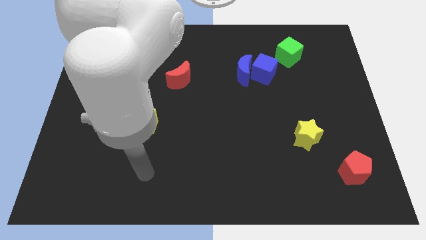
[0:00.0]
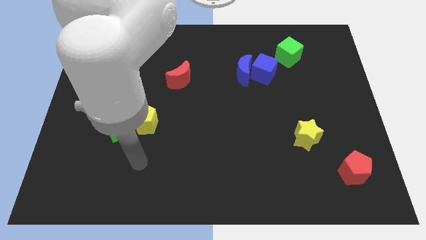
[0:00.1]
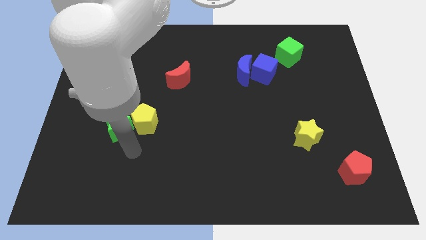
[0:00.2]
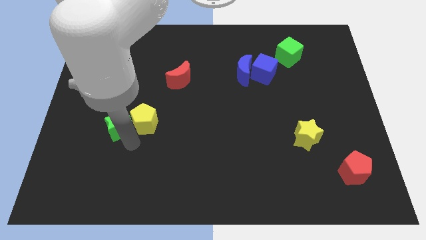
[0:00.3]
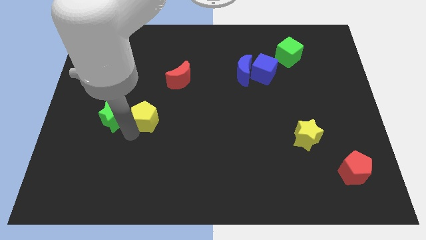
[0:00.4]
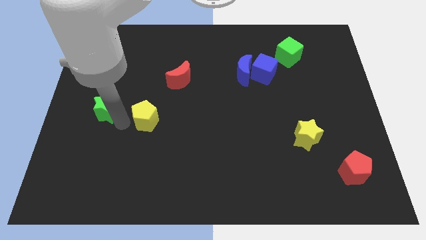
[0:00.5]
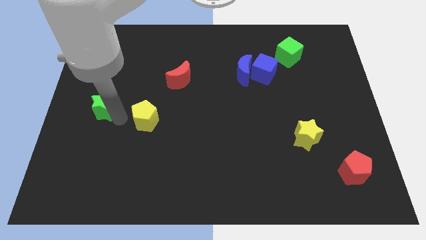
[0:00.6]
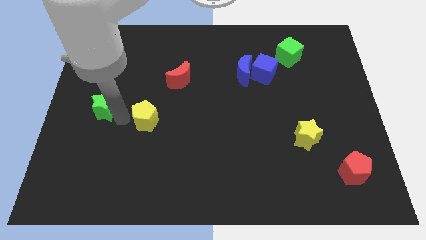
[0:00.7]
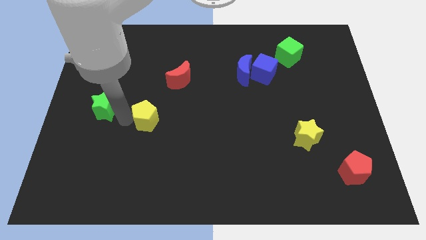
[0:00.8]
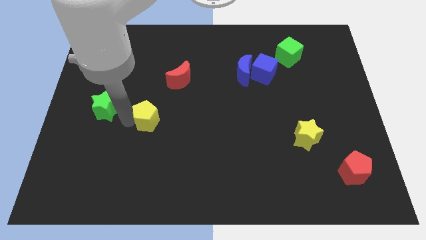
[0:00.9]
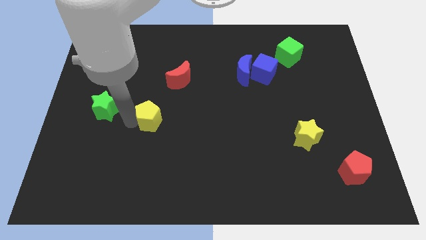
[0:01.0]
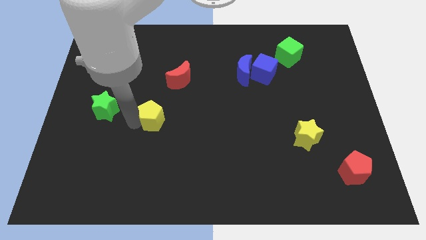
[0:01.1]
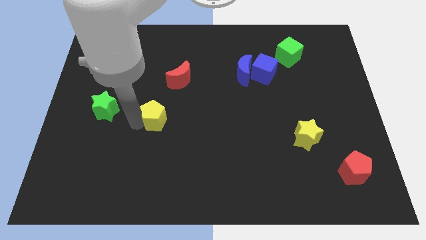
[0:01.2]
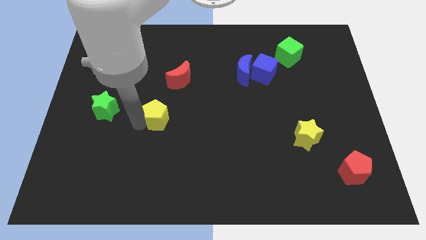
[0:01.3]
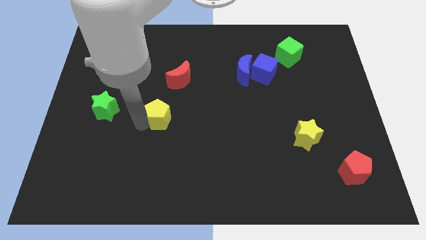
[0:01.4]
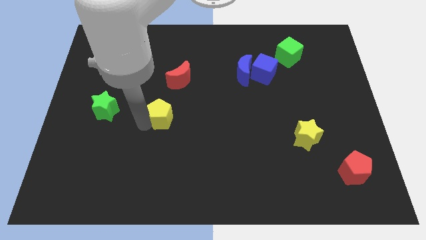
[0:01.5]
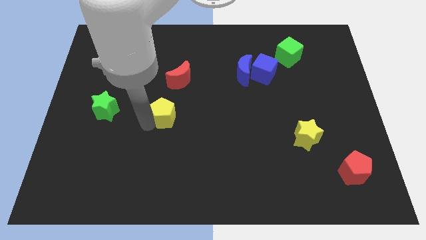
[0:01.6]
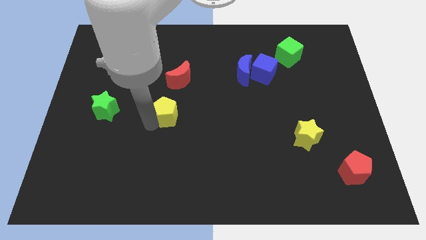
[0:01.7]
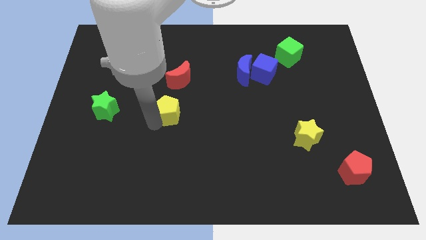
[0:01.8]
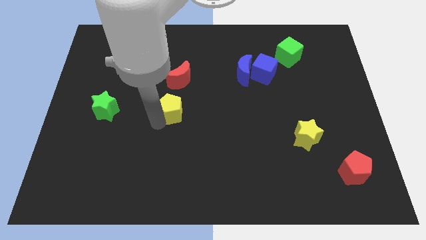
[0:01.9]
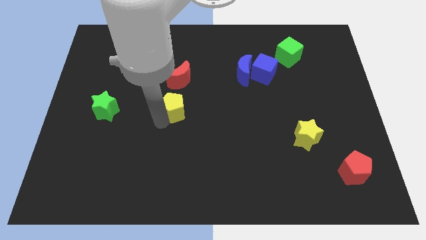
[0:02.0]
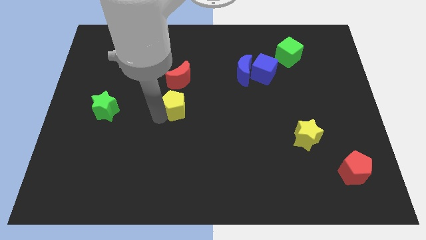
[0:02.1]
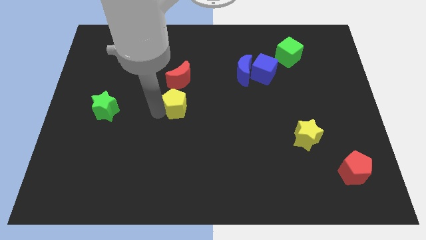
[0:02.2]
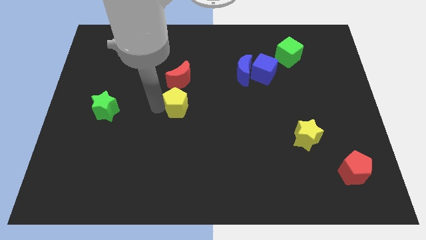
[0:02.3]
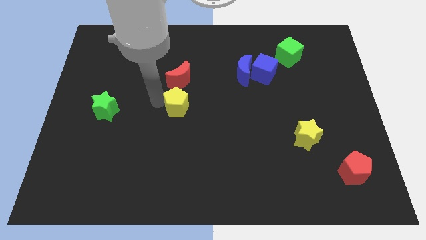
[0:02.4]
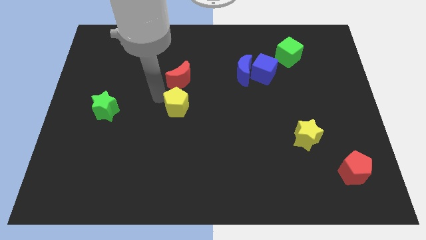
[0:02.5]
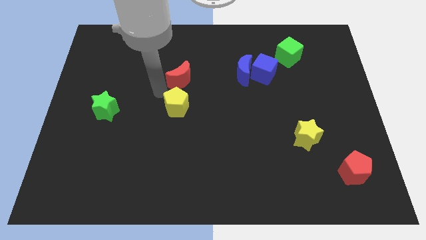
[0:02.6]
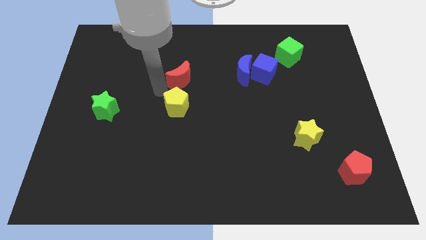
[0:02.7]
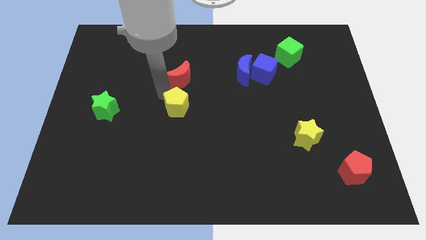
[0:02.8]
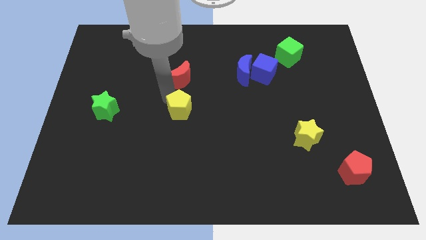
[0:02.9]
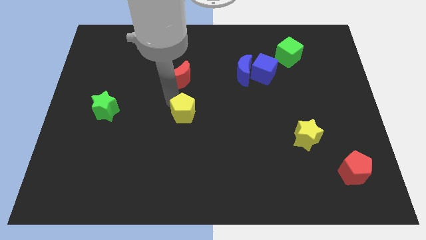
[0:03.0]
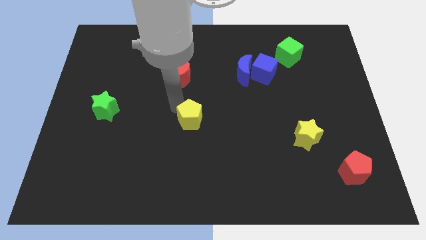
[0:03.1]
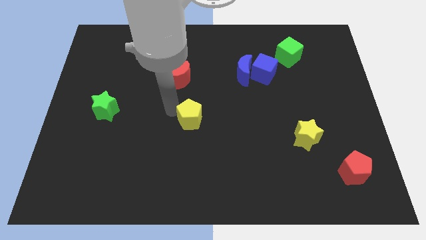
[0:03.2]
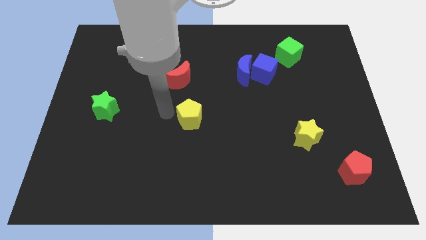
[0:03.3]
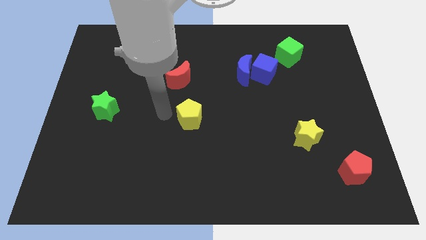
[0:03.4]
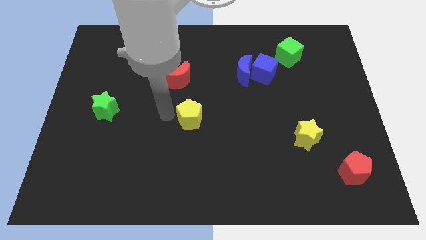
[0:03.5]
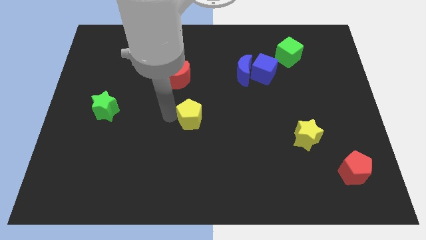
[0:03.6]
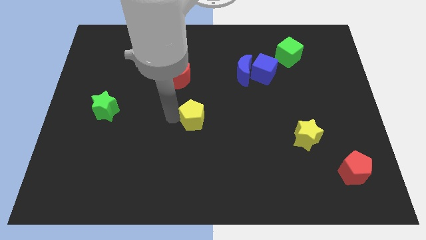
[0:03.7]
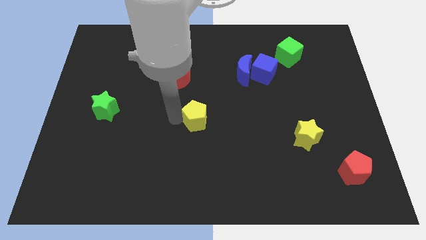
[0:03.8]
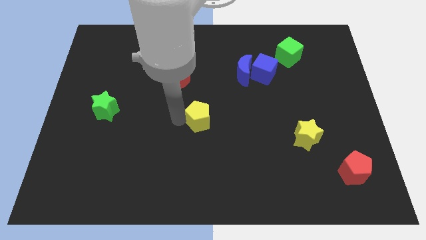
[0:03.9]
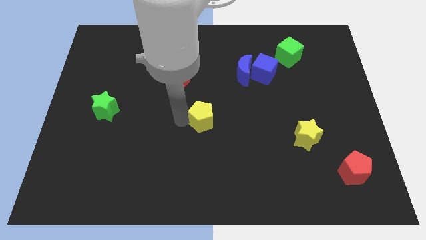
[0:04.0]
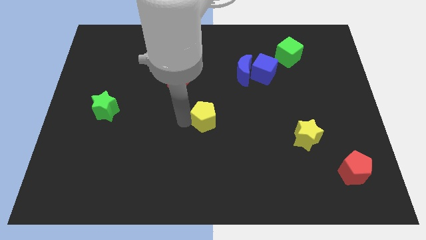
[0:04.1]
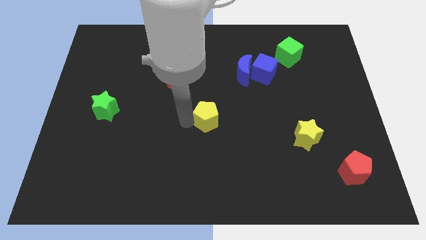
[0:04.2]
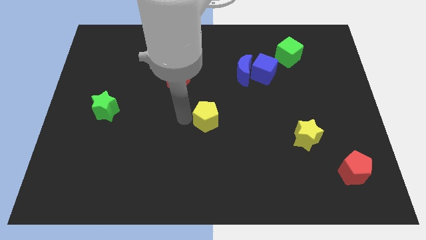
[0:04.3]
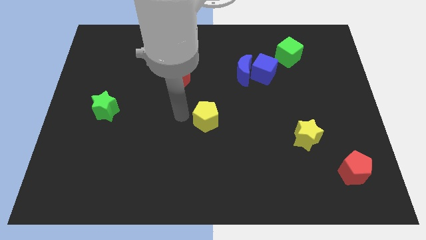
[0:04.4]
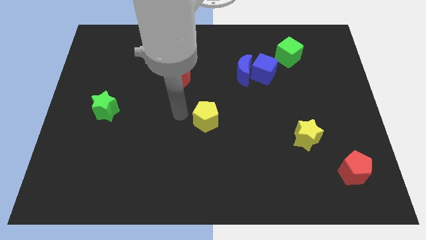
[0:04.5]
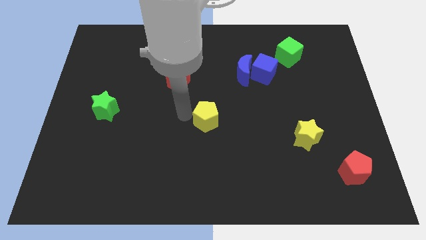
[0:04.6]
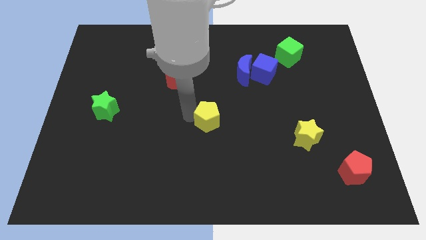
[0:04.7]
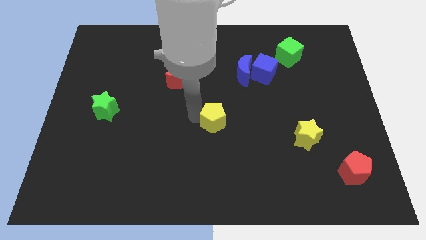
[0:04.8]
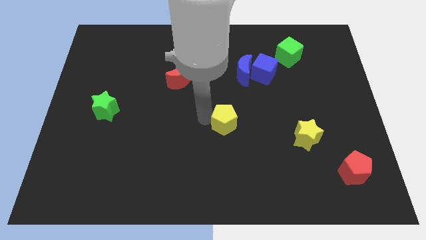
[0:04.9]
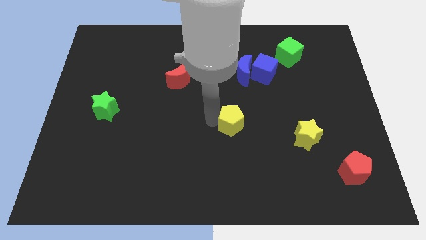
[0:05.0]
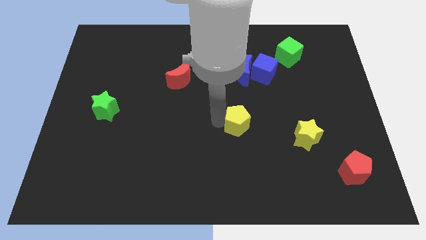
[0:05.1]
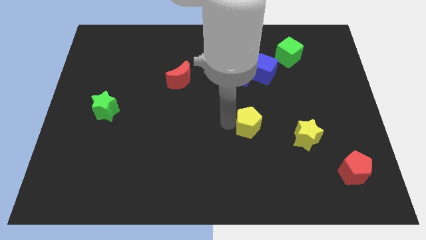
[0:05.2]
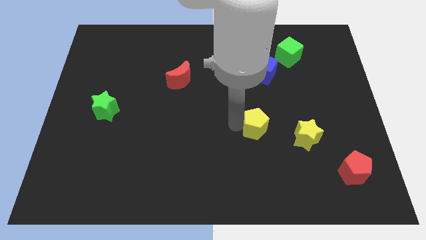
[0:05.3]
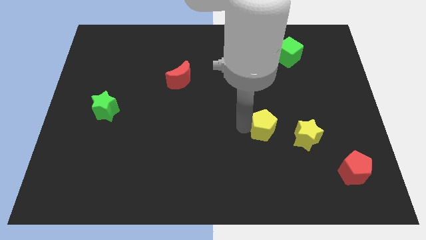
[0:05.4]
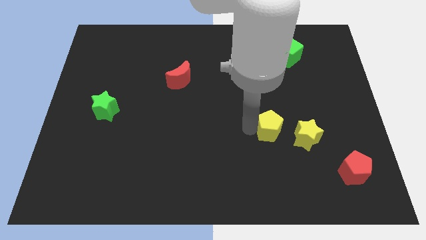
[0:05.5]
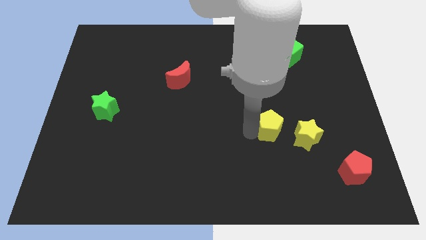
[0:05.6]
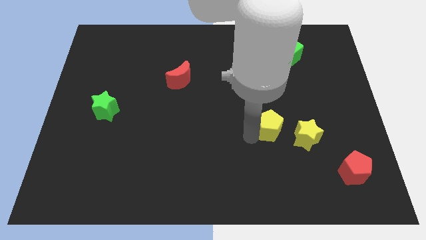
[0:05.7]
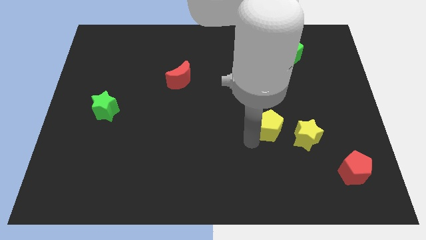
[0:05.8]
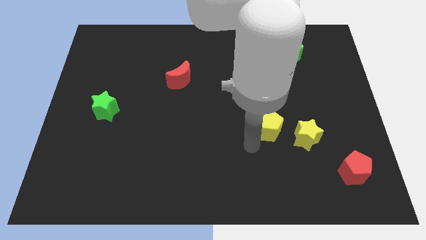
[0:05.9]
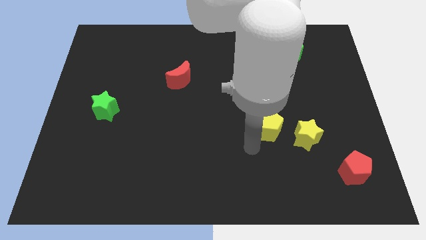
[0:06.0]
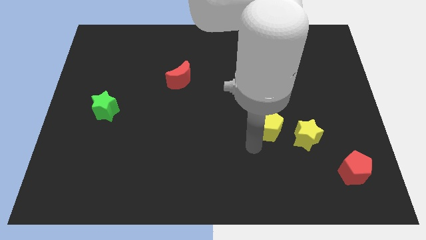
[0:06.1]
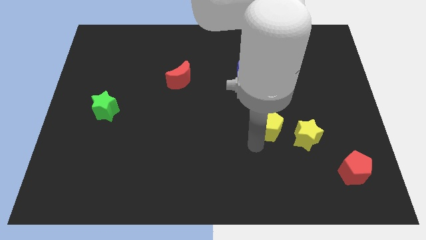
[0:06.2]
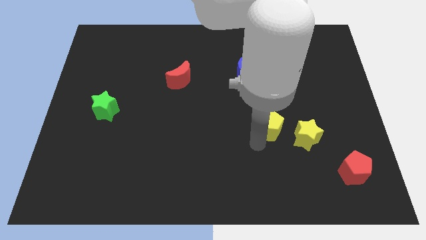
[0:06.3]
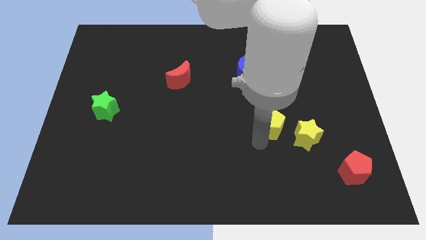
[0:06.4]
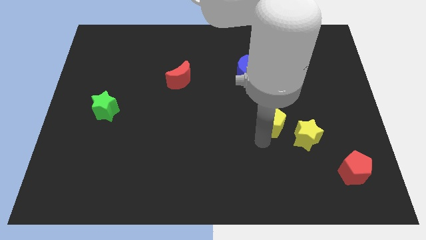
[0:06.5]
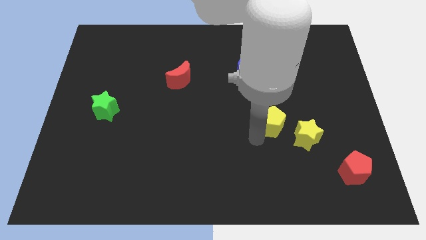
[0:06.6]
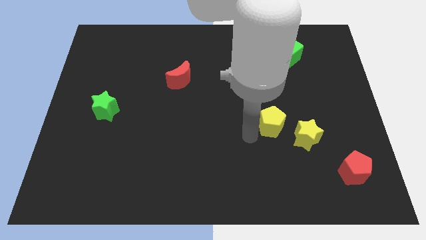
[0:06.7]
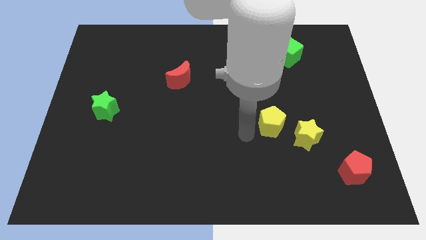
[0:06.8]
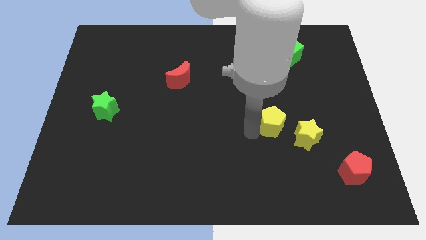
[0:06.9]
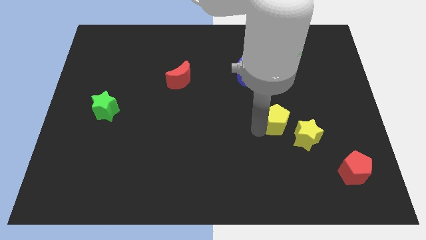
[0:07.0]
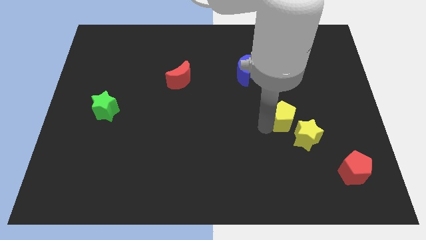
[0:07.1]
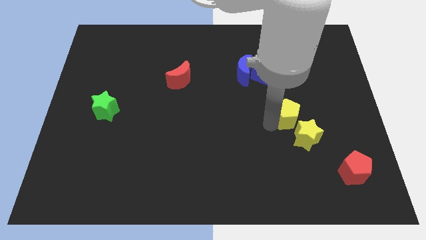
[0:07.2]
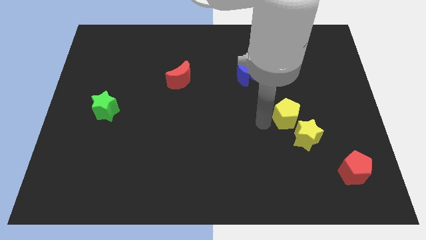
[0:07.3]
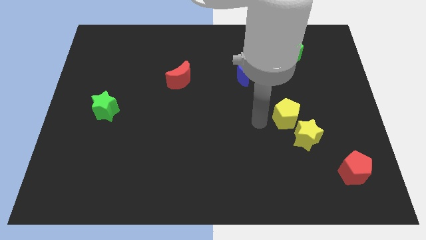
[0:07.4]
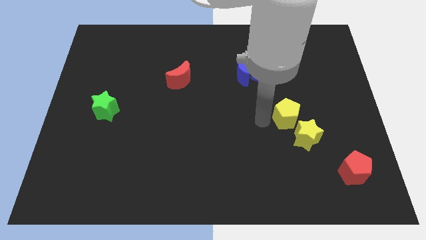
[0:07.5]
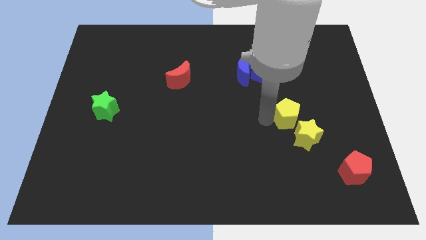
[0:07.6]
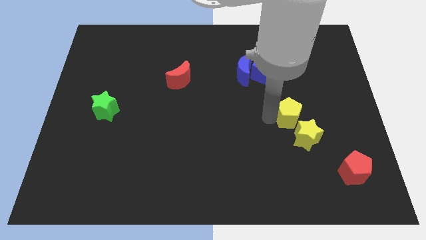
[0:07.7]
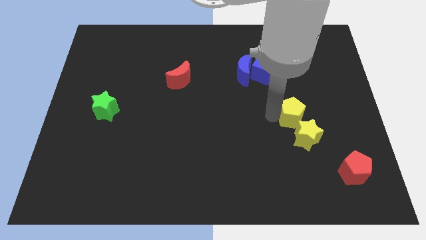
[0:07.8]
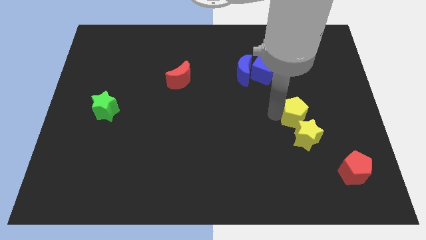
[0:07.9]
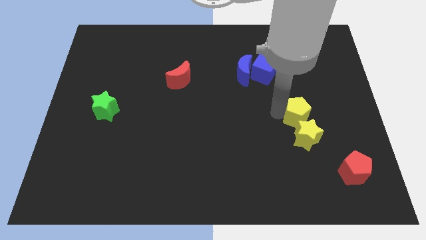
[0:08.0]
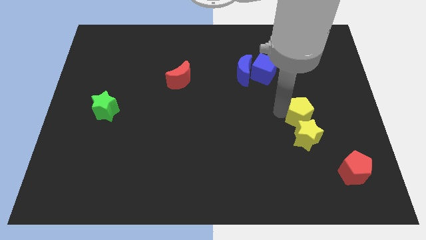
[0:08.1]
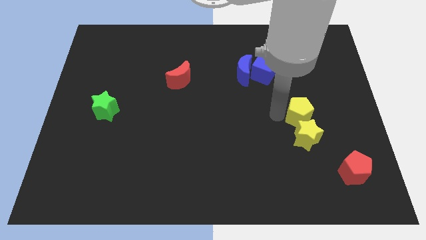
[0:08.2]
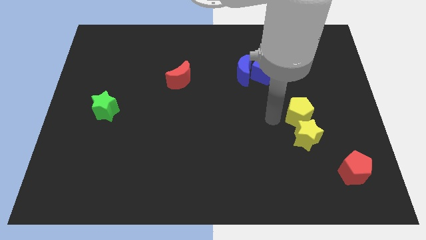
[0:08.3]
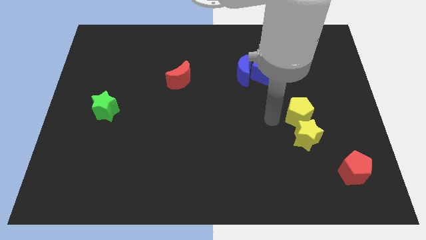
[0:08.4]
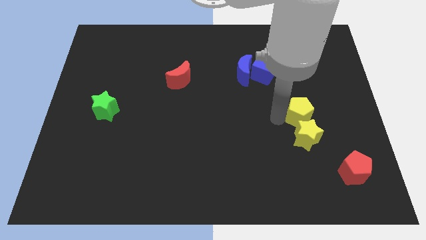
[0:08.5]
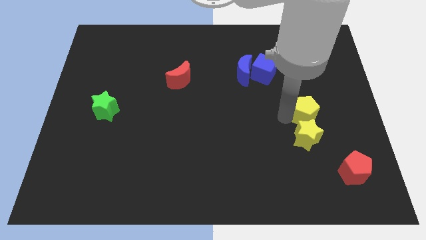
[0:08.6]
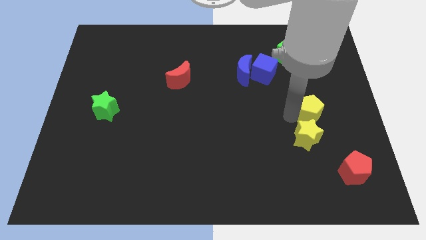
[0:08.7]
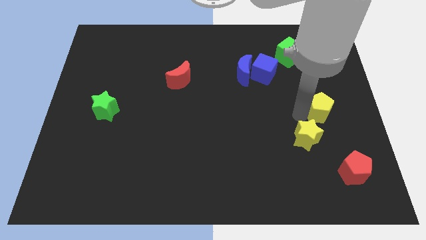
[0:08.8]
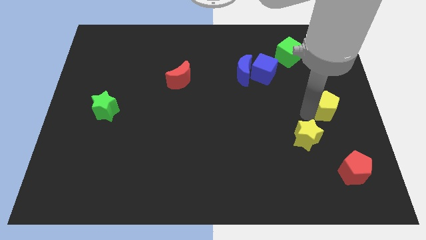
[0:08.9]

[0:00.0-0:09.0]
push the yellow pentagon to the right side of the board
